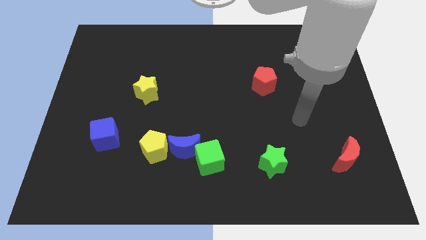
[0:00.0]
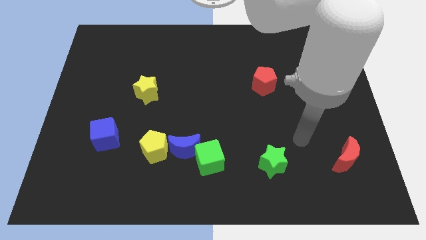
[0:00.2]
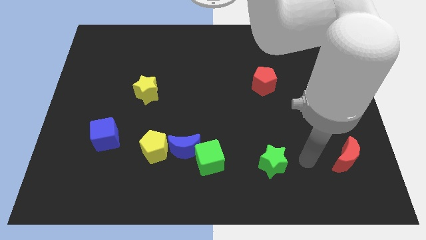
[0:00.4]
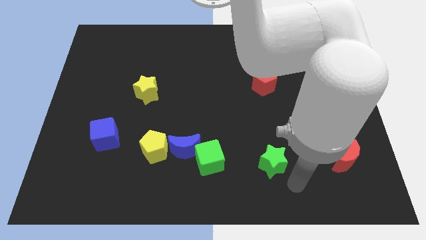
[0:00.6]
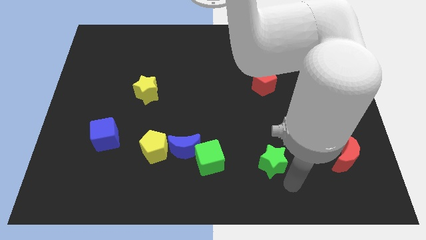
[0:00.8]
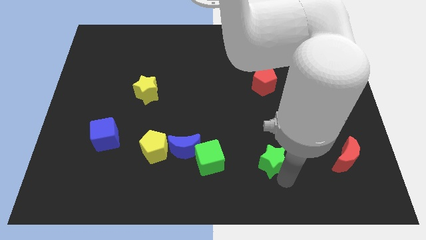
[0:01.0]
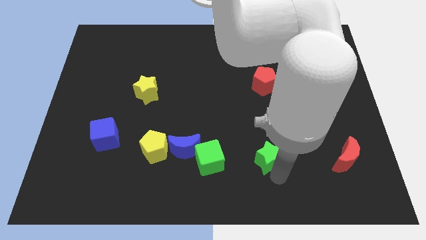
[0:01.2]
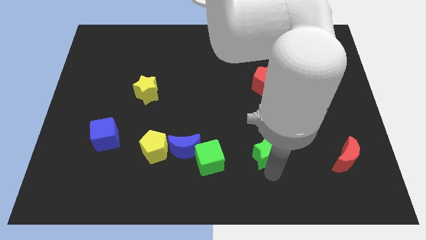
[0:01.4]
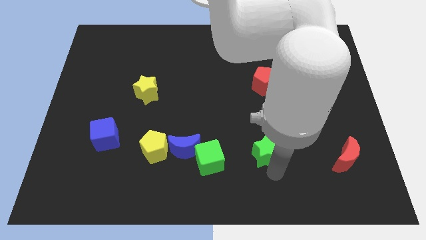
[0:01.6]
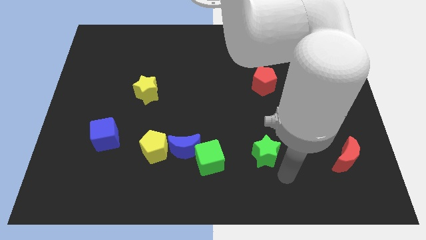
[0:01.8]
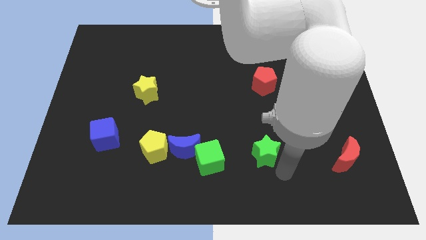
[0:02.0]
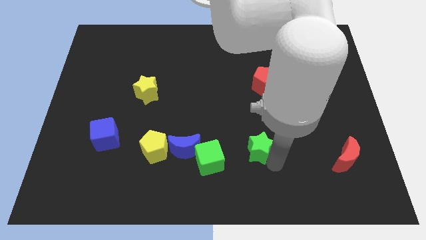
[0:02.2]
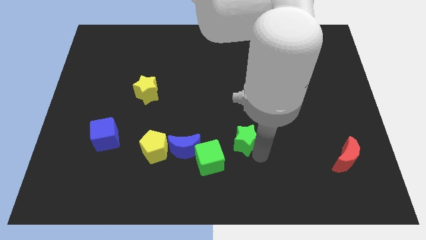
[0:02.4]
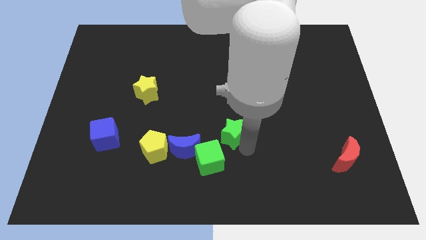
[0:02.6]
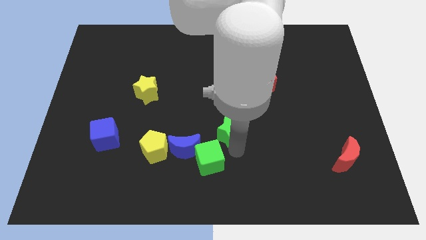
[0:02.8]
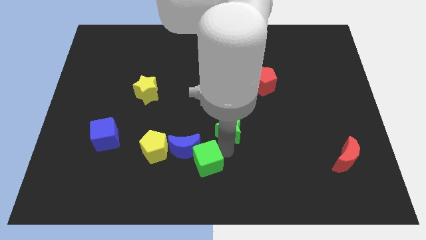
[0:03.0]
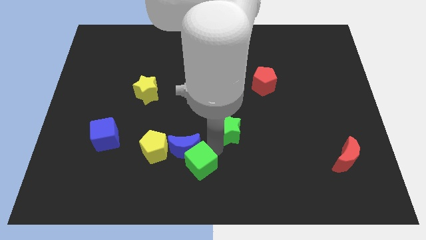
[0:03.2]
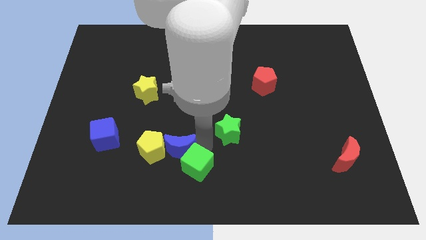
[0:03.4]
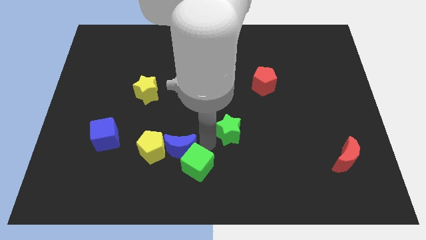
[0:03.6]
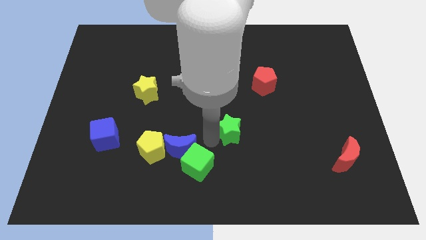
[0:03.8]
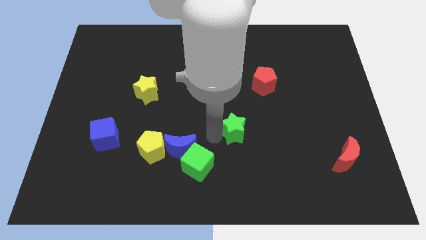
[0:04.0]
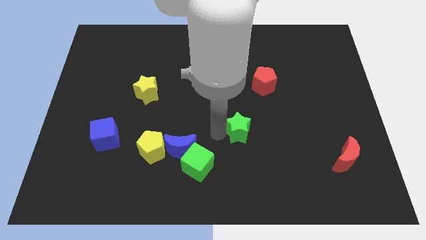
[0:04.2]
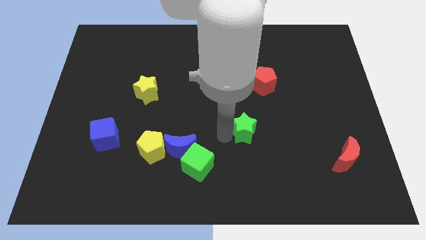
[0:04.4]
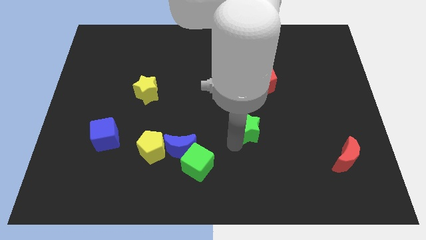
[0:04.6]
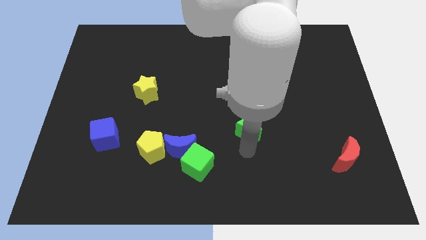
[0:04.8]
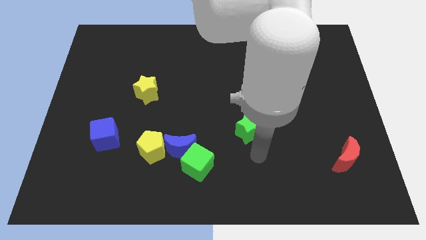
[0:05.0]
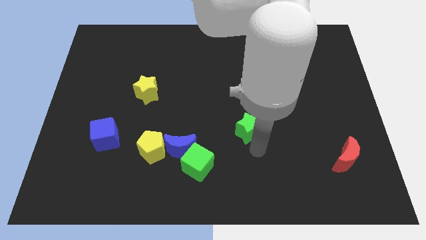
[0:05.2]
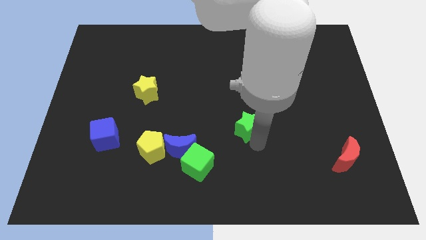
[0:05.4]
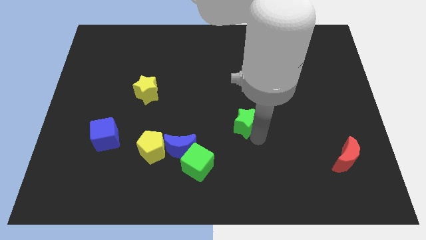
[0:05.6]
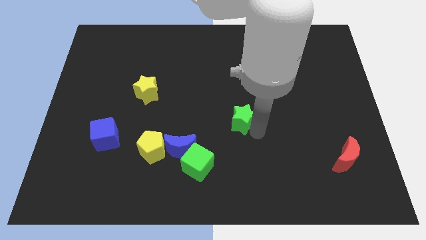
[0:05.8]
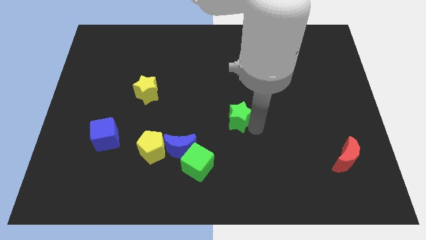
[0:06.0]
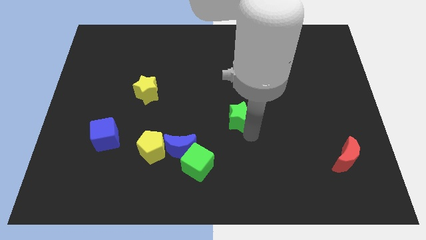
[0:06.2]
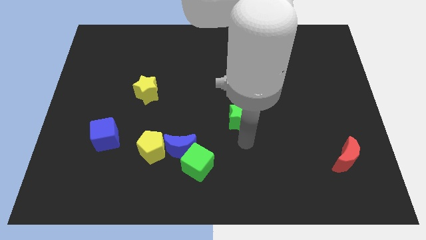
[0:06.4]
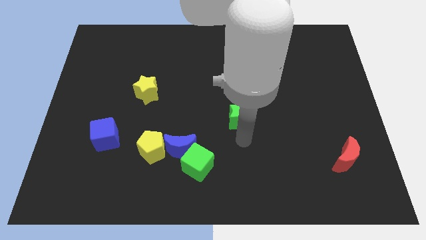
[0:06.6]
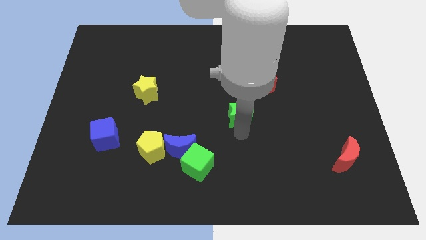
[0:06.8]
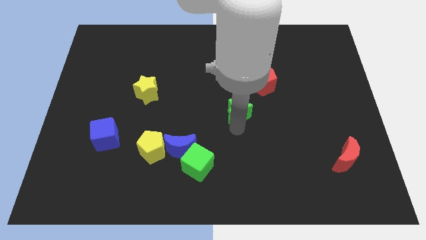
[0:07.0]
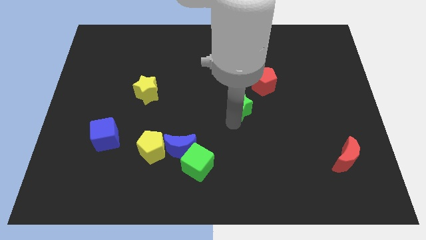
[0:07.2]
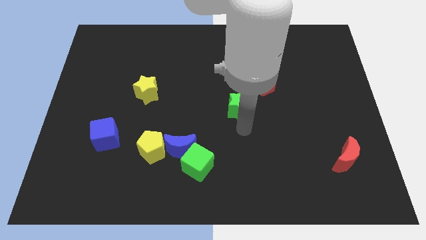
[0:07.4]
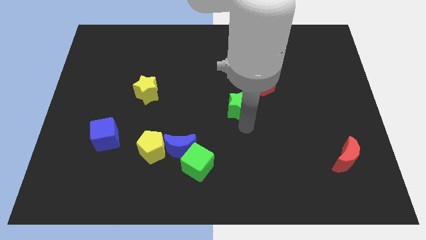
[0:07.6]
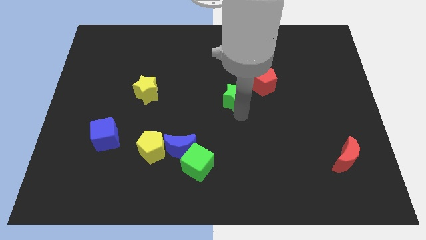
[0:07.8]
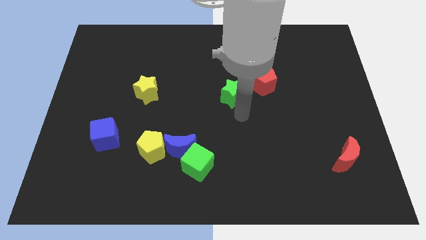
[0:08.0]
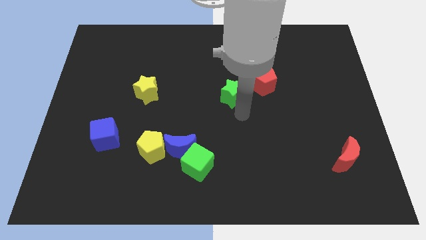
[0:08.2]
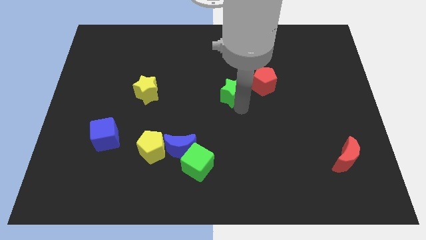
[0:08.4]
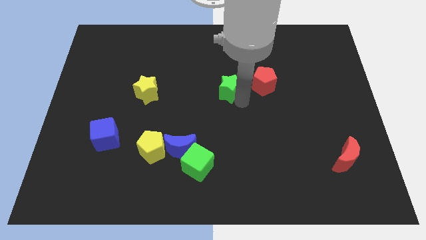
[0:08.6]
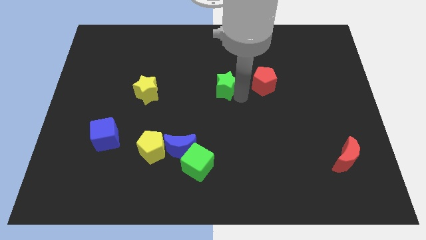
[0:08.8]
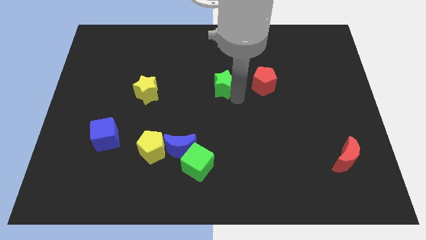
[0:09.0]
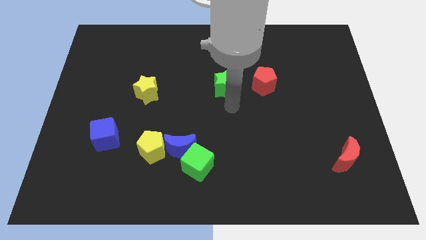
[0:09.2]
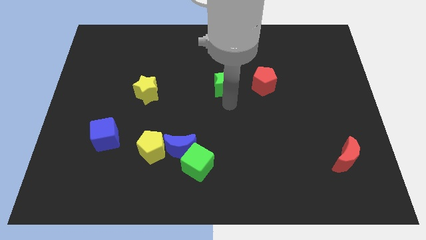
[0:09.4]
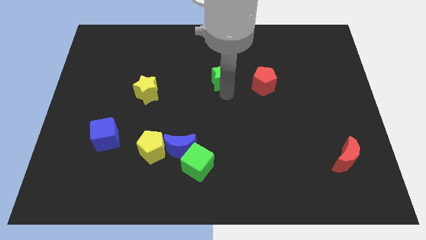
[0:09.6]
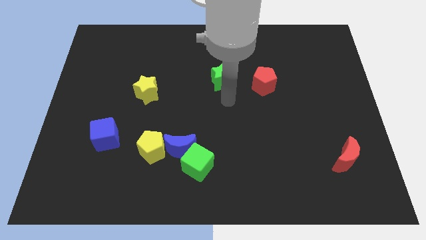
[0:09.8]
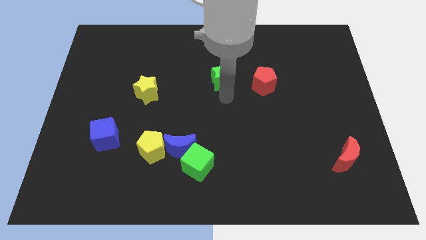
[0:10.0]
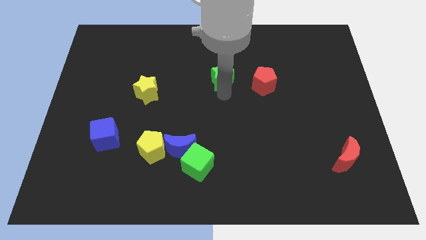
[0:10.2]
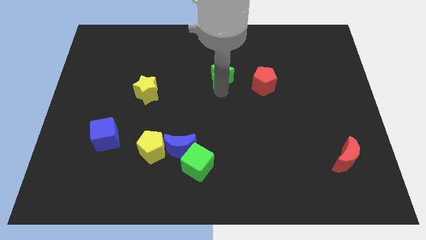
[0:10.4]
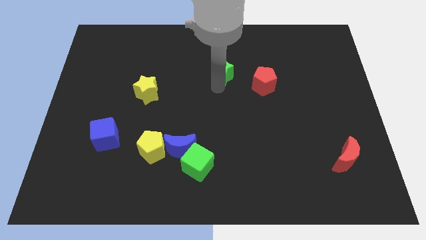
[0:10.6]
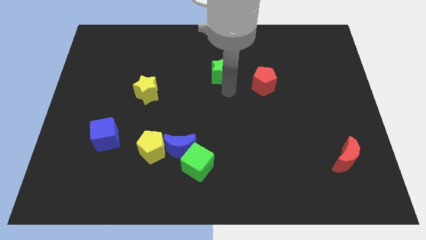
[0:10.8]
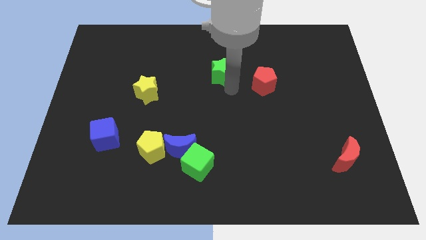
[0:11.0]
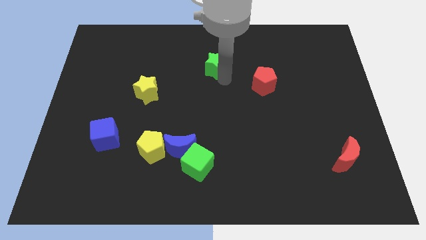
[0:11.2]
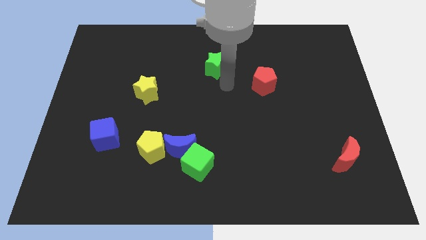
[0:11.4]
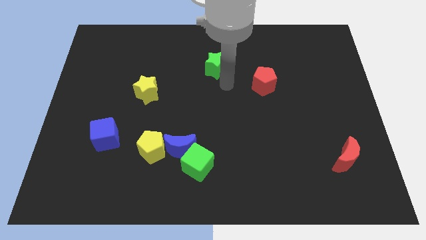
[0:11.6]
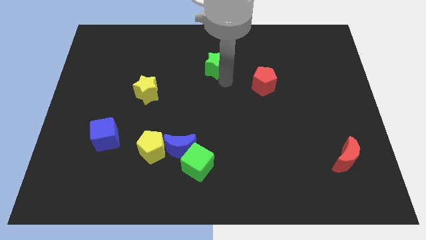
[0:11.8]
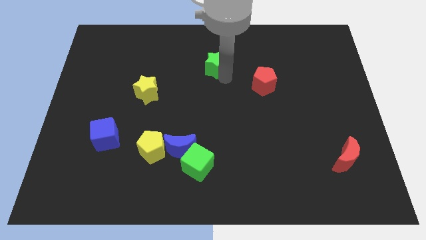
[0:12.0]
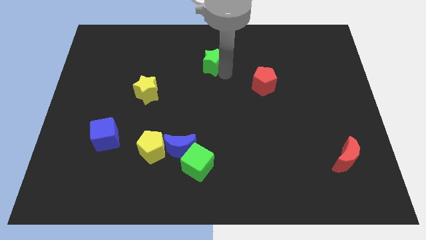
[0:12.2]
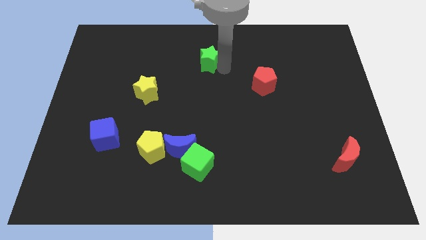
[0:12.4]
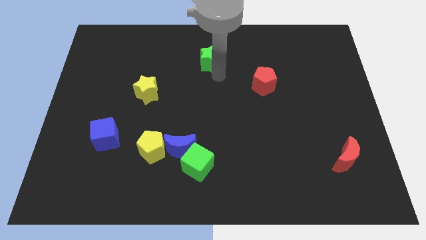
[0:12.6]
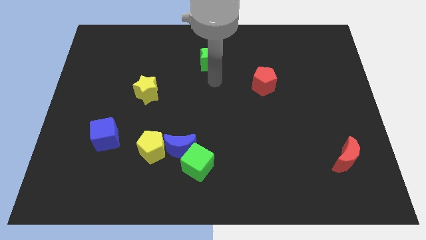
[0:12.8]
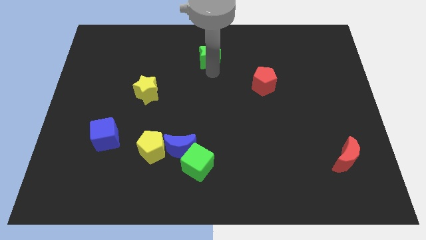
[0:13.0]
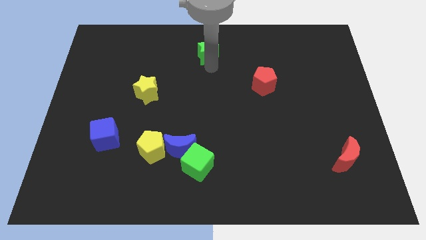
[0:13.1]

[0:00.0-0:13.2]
push the green star to the top side
